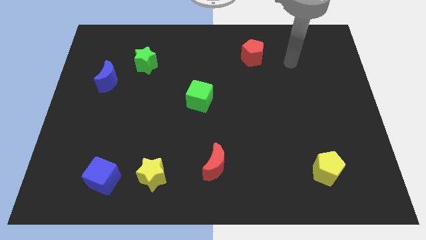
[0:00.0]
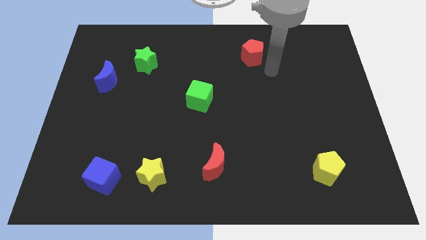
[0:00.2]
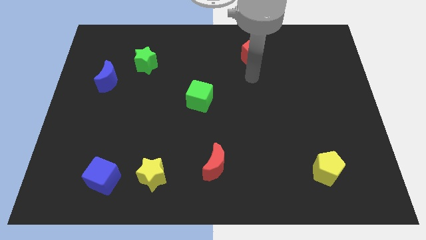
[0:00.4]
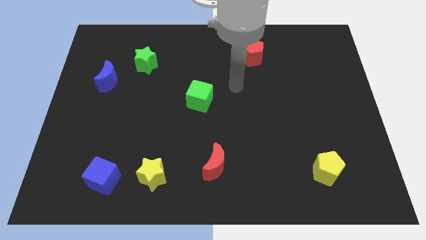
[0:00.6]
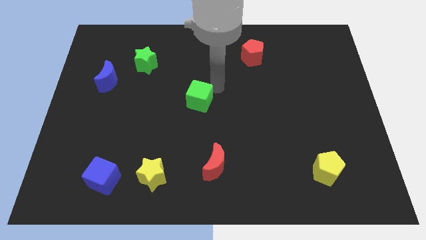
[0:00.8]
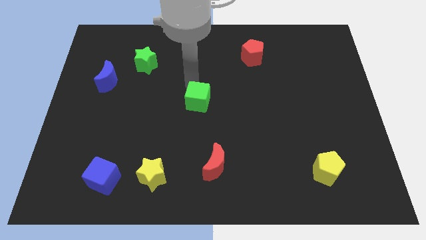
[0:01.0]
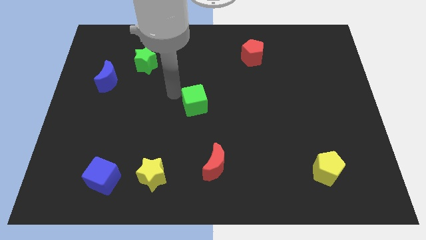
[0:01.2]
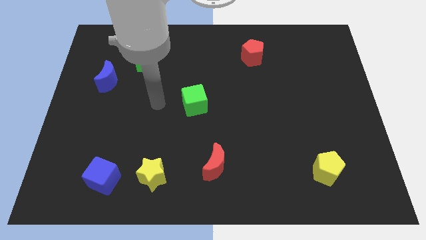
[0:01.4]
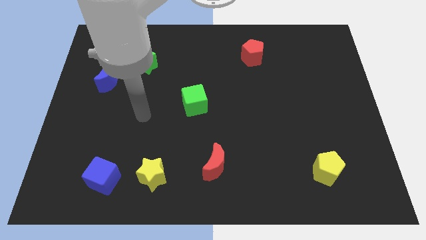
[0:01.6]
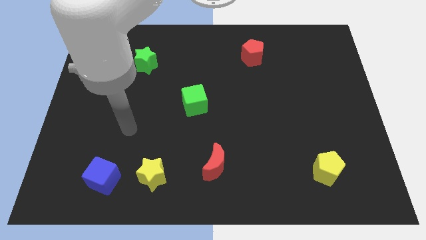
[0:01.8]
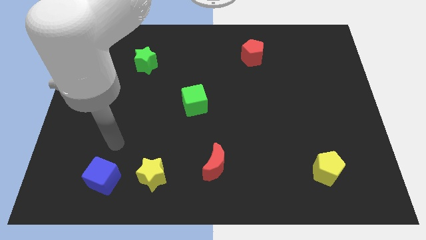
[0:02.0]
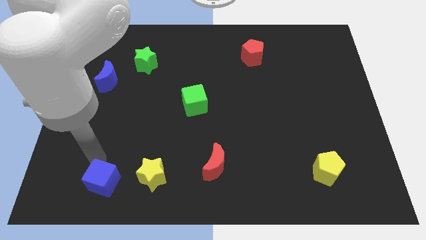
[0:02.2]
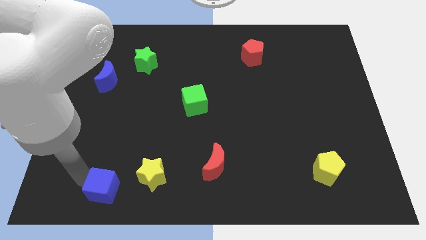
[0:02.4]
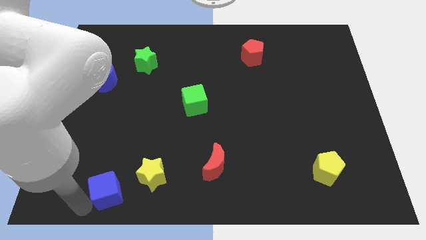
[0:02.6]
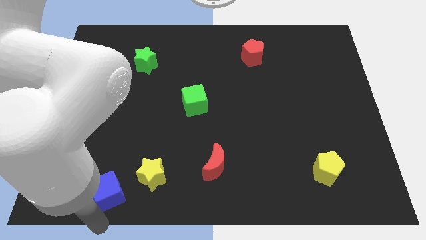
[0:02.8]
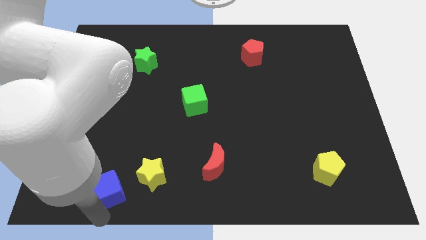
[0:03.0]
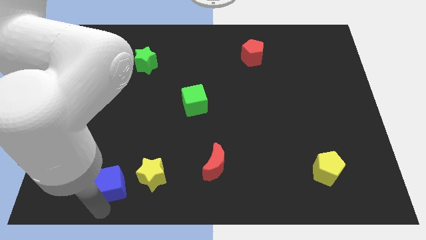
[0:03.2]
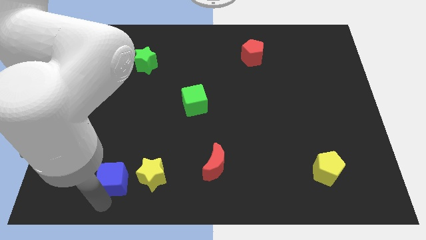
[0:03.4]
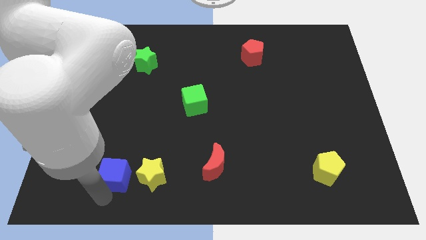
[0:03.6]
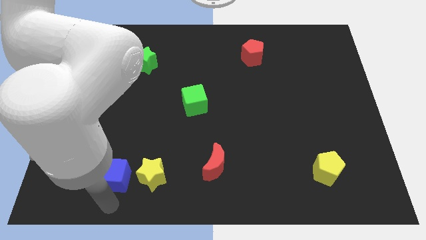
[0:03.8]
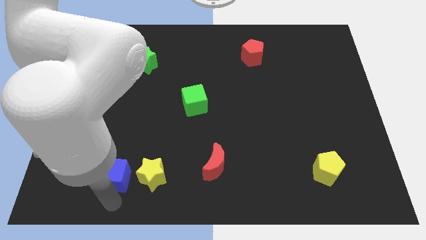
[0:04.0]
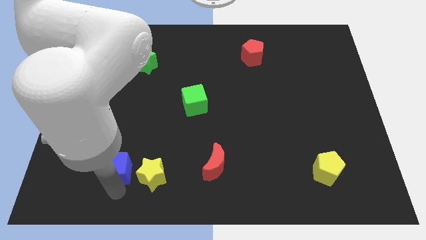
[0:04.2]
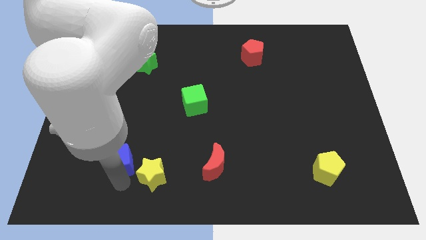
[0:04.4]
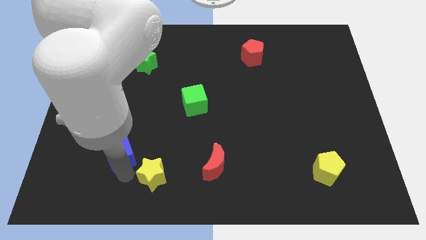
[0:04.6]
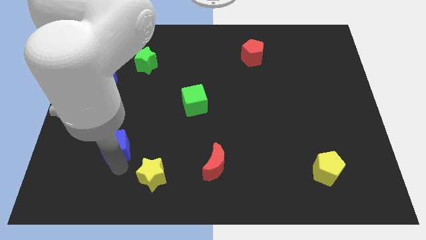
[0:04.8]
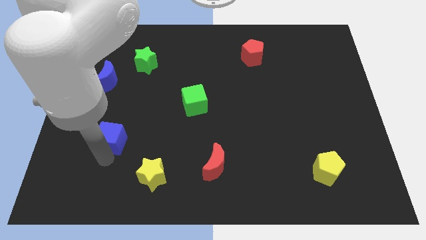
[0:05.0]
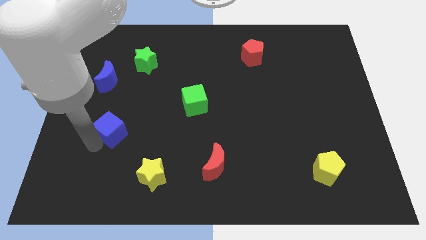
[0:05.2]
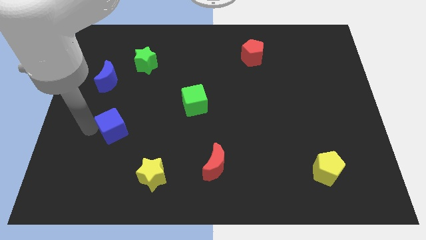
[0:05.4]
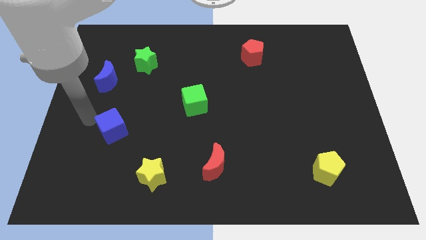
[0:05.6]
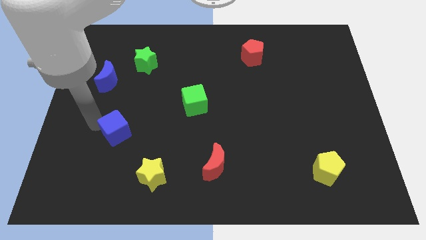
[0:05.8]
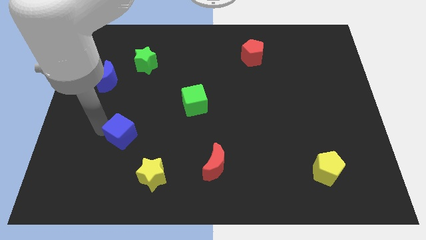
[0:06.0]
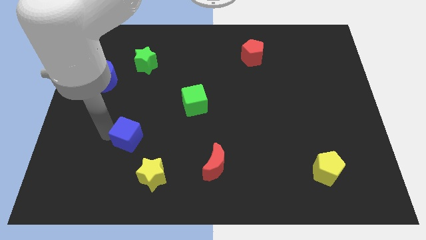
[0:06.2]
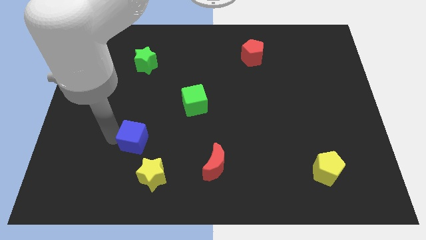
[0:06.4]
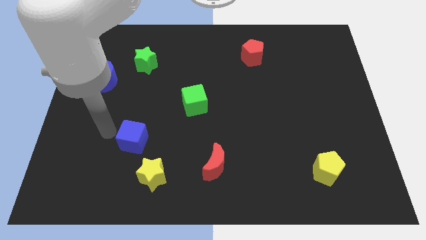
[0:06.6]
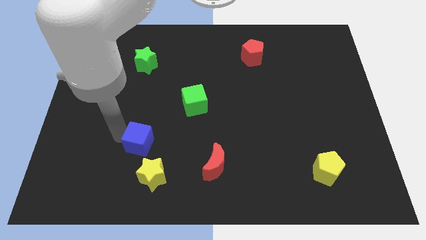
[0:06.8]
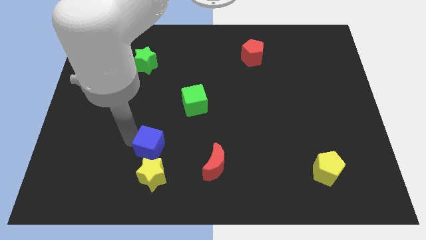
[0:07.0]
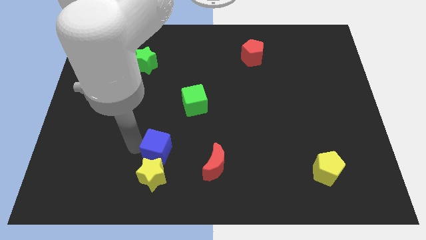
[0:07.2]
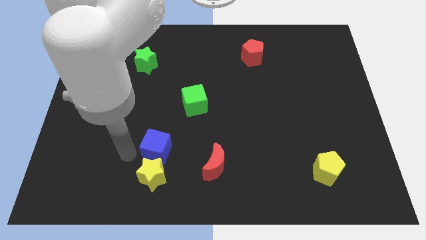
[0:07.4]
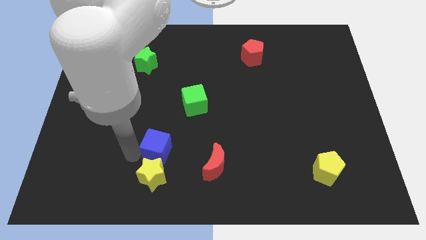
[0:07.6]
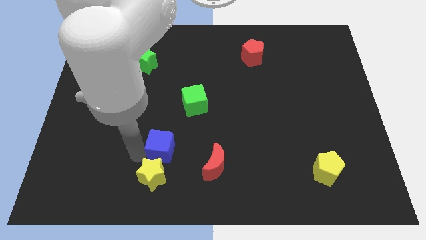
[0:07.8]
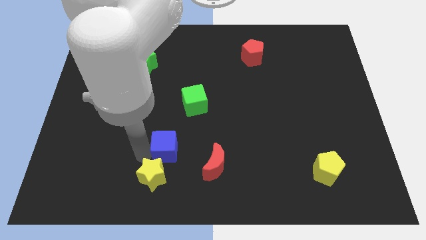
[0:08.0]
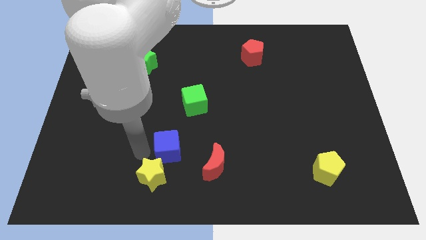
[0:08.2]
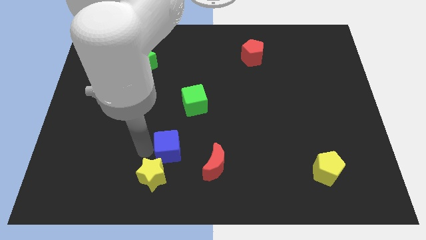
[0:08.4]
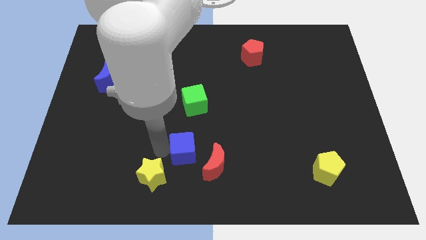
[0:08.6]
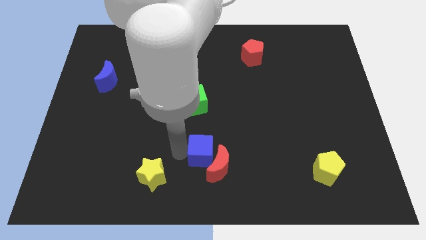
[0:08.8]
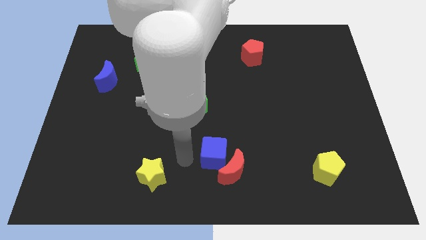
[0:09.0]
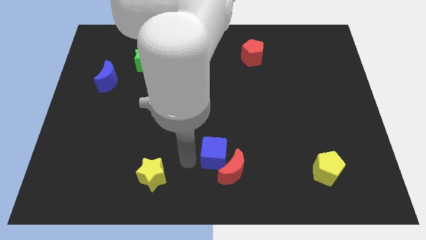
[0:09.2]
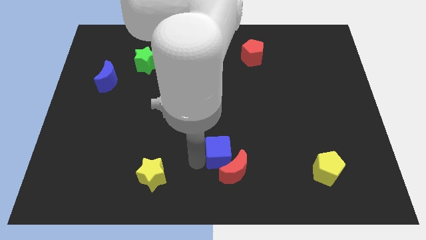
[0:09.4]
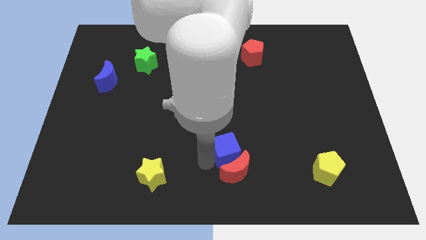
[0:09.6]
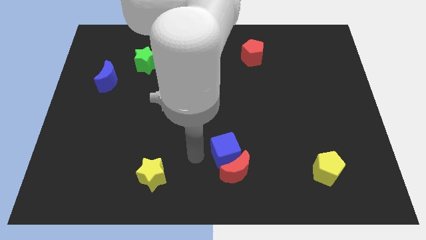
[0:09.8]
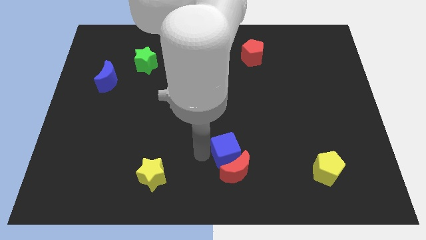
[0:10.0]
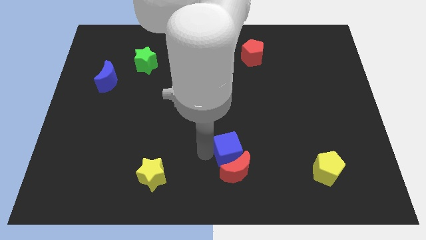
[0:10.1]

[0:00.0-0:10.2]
slide the blue cube diagonally up and to the right of the red moon

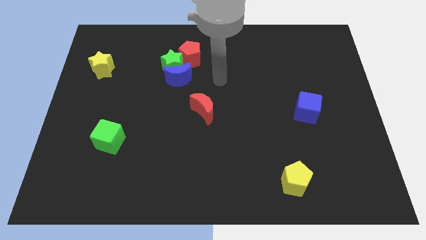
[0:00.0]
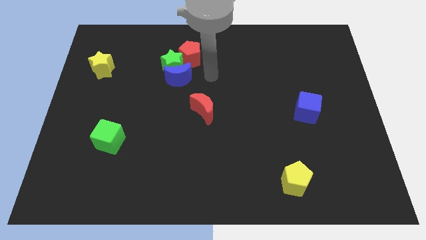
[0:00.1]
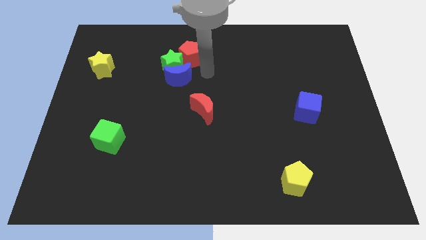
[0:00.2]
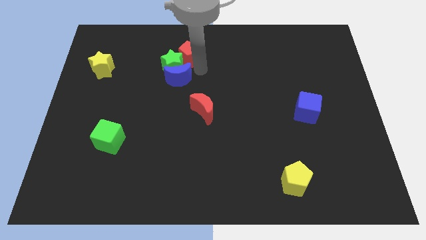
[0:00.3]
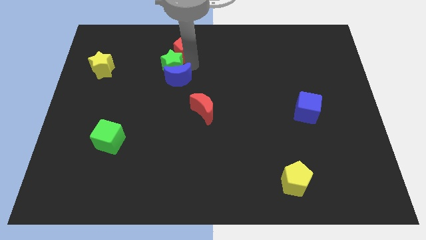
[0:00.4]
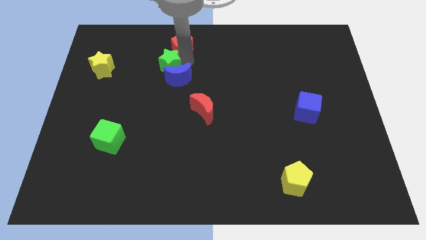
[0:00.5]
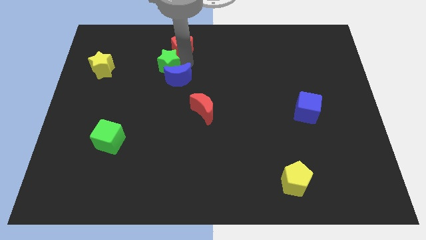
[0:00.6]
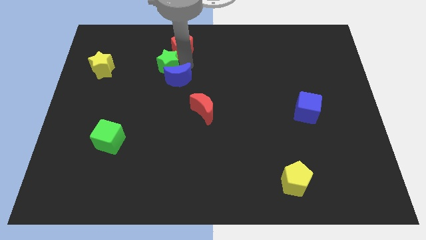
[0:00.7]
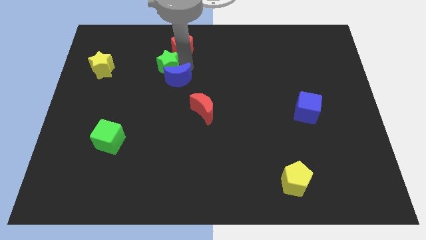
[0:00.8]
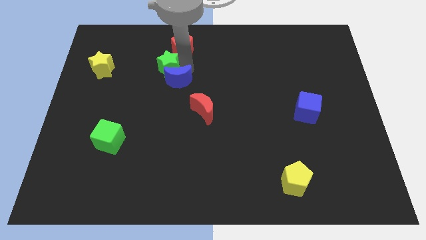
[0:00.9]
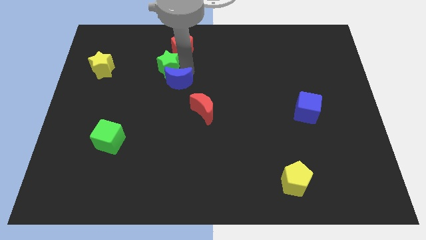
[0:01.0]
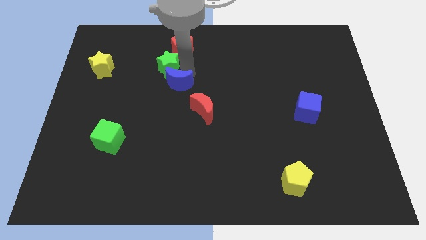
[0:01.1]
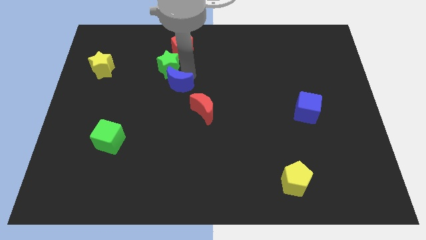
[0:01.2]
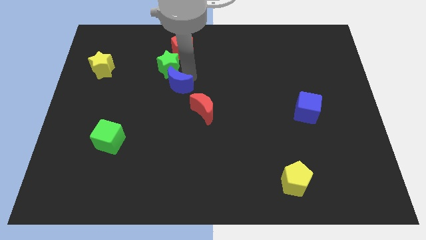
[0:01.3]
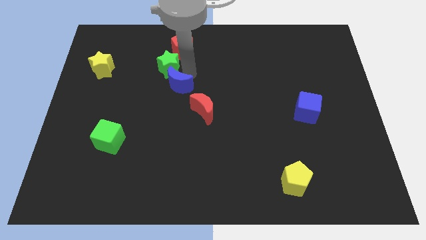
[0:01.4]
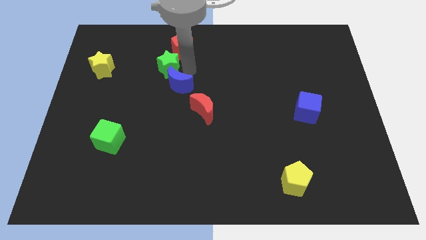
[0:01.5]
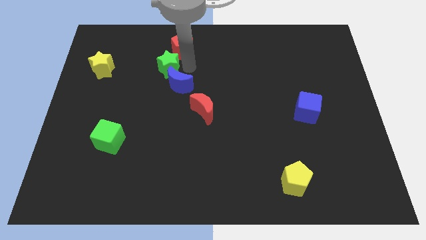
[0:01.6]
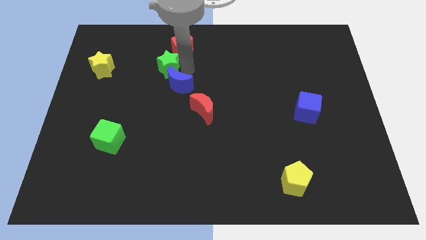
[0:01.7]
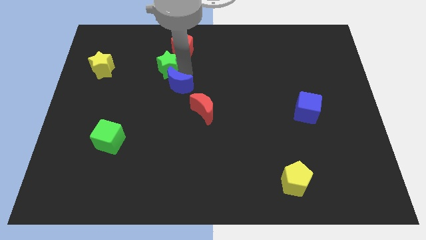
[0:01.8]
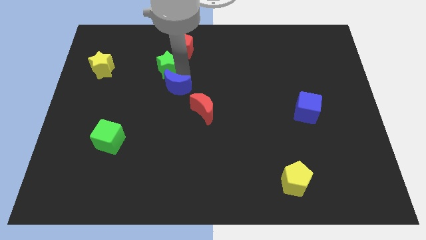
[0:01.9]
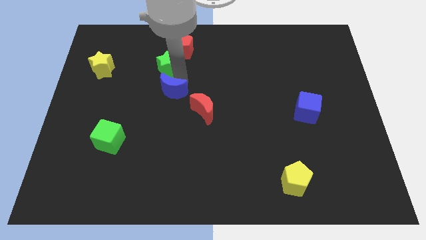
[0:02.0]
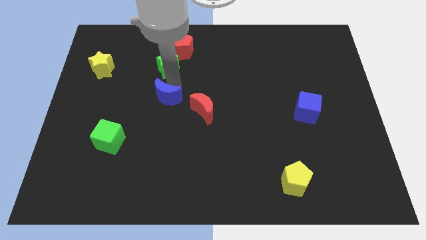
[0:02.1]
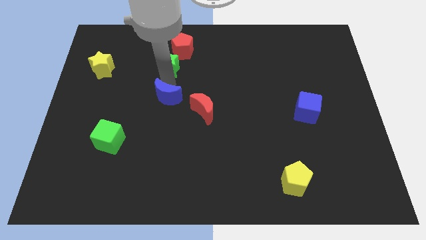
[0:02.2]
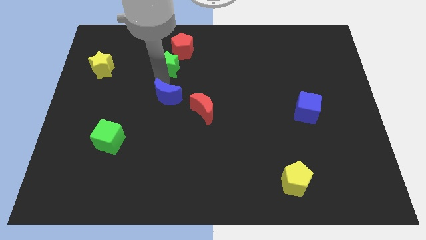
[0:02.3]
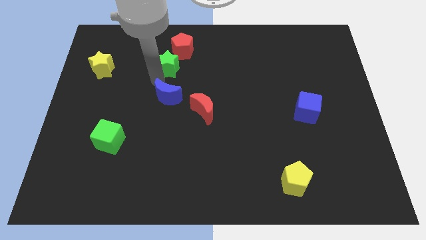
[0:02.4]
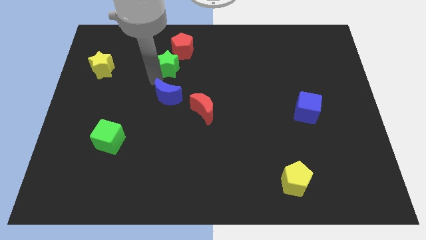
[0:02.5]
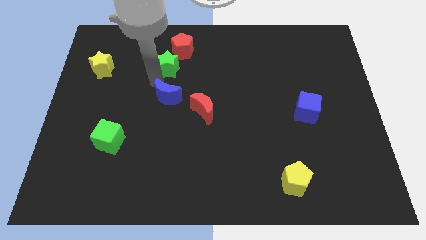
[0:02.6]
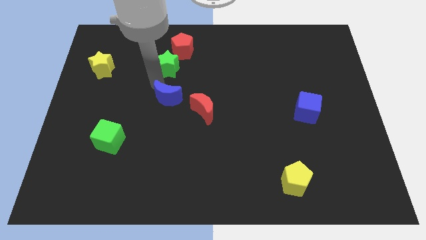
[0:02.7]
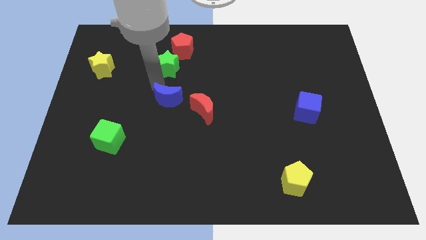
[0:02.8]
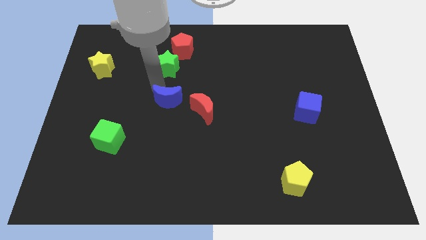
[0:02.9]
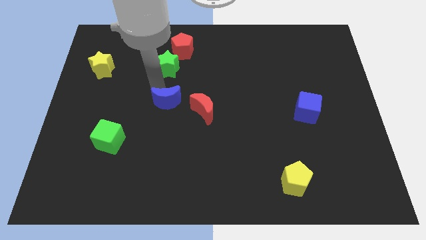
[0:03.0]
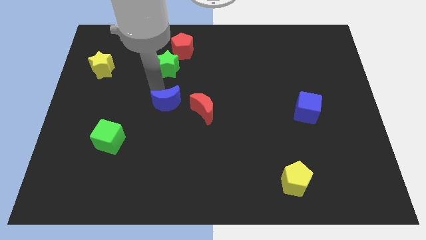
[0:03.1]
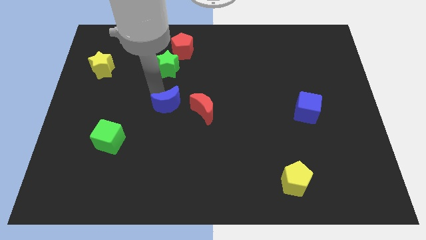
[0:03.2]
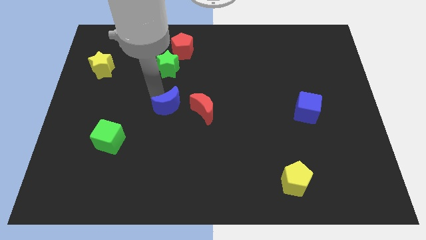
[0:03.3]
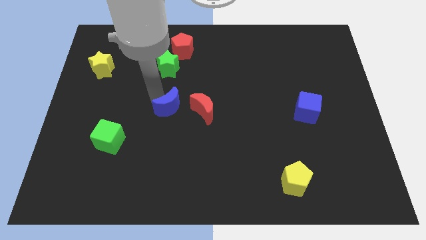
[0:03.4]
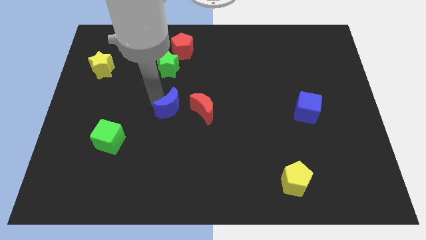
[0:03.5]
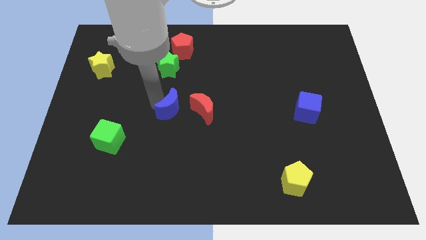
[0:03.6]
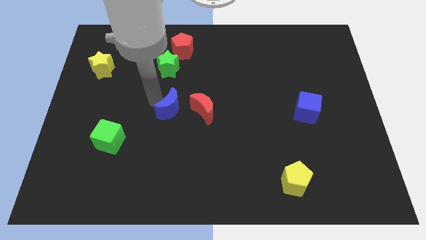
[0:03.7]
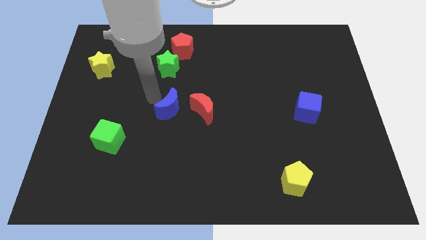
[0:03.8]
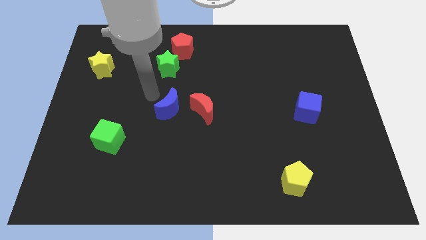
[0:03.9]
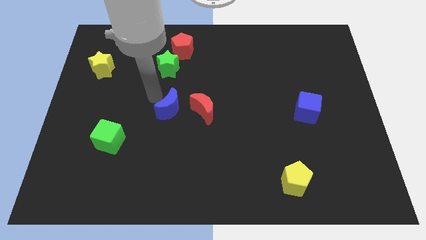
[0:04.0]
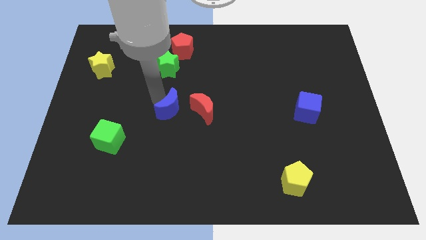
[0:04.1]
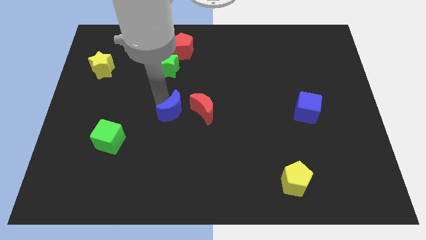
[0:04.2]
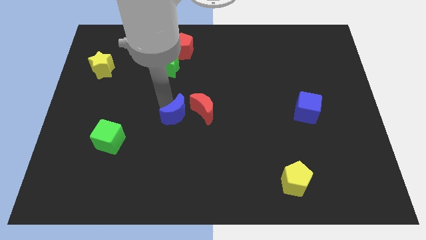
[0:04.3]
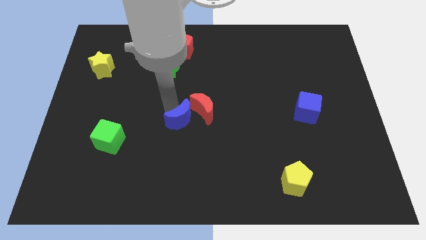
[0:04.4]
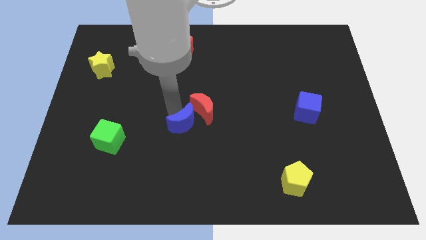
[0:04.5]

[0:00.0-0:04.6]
move the blue moon to the bottom of the red moon
